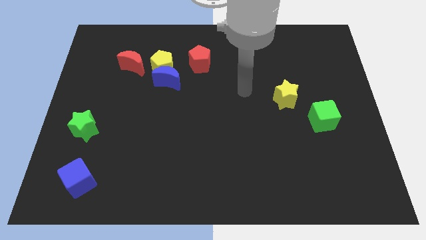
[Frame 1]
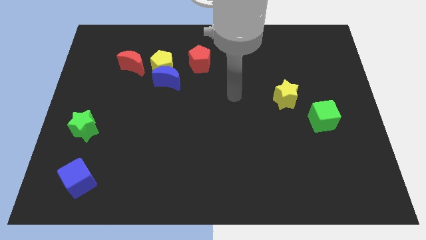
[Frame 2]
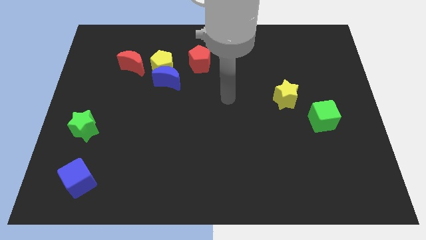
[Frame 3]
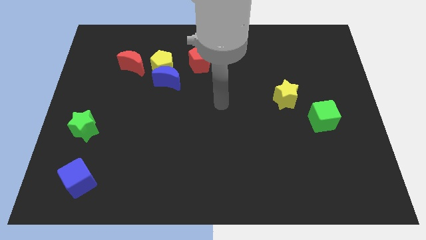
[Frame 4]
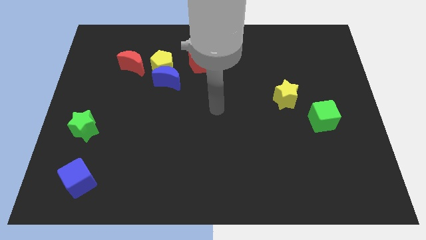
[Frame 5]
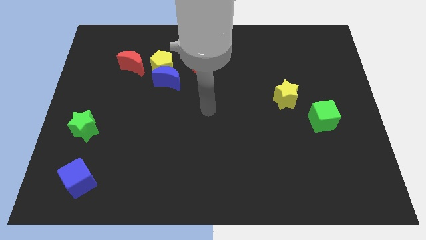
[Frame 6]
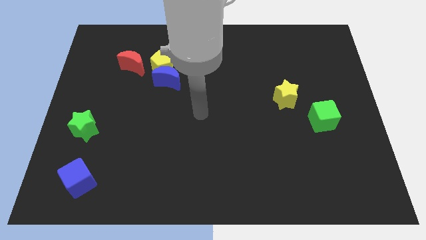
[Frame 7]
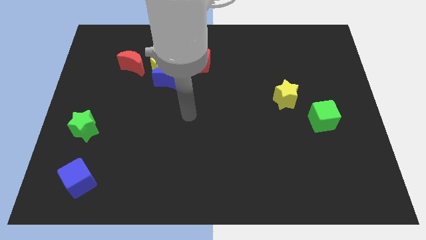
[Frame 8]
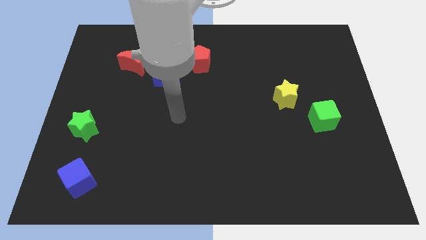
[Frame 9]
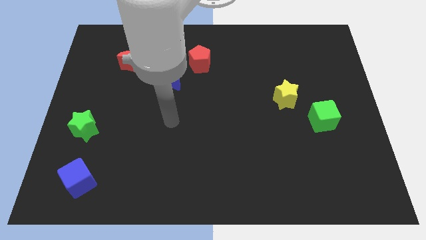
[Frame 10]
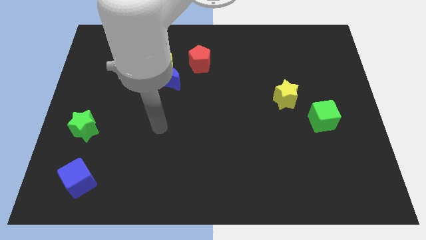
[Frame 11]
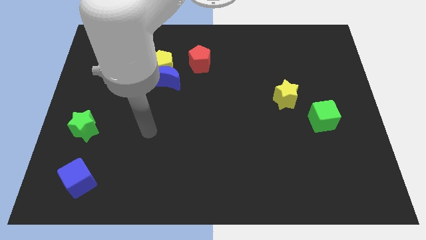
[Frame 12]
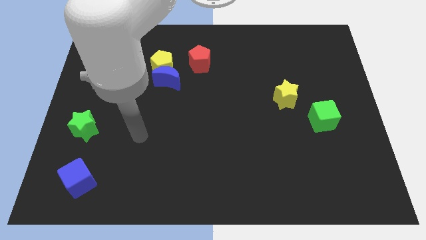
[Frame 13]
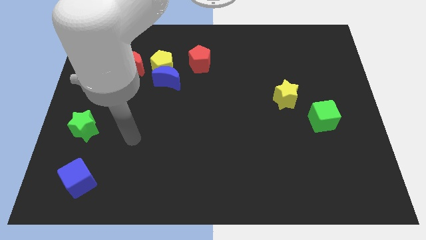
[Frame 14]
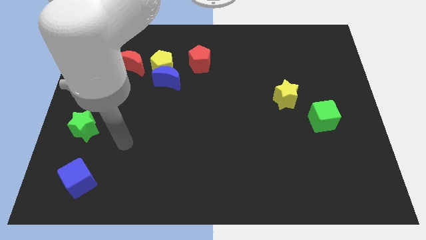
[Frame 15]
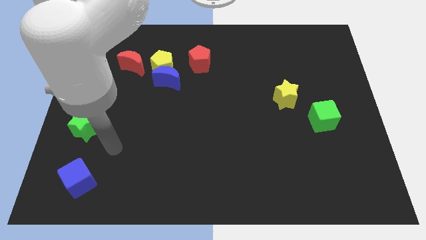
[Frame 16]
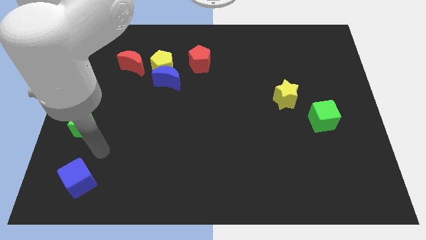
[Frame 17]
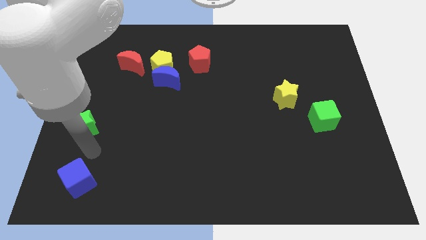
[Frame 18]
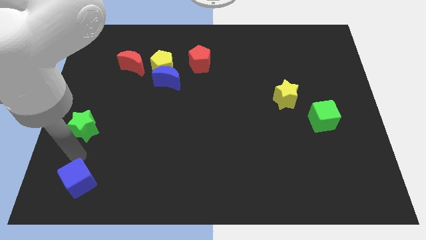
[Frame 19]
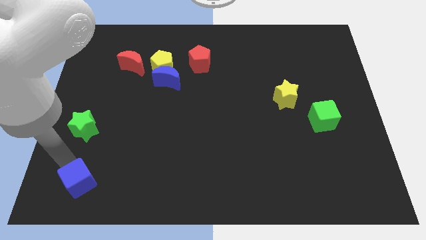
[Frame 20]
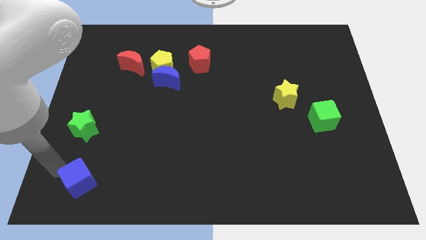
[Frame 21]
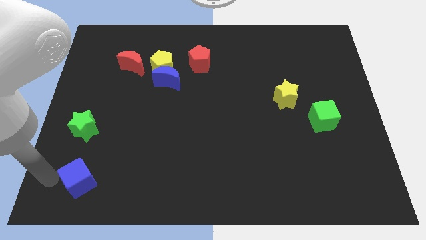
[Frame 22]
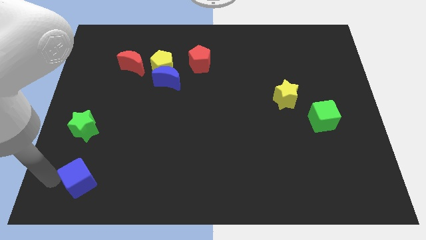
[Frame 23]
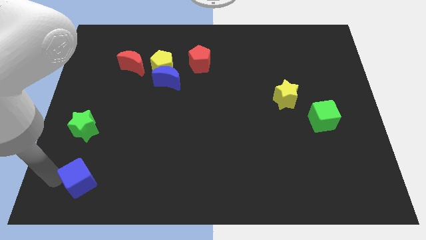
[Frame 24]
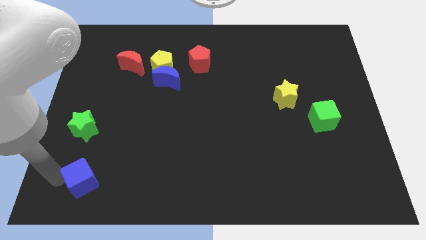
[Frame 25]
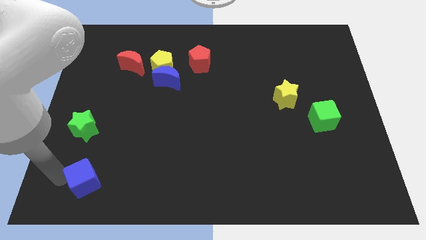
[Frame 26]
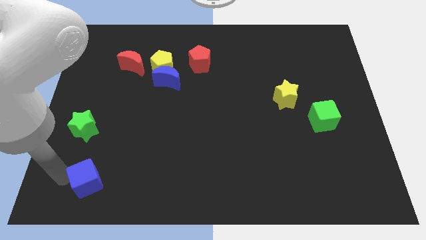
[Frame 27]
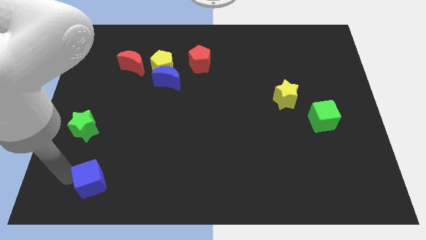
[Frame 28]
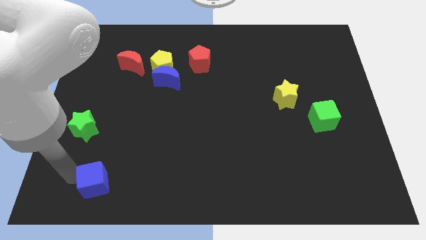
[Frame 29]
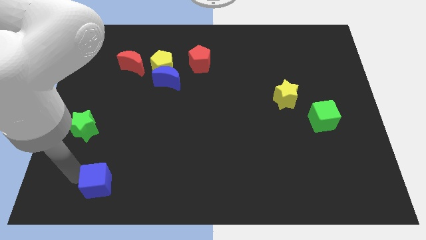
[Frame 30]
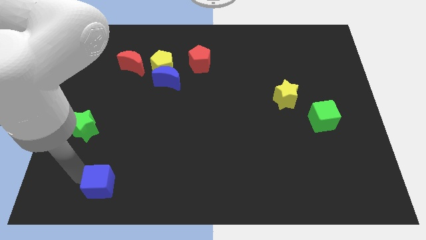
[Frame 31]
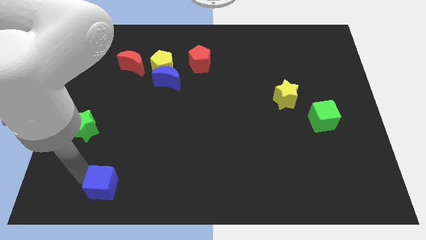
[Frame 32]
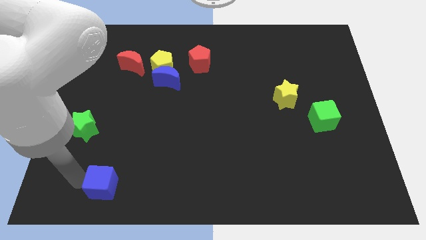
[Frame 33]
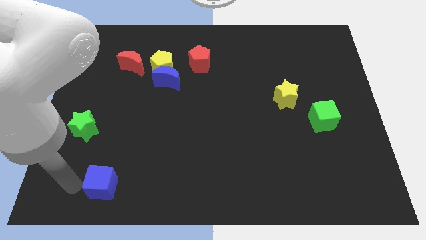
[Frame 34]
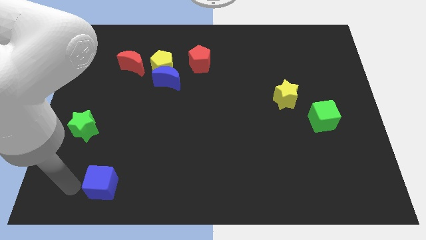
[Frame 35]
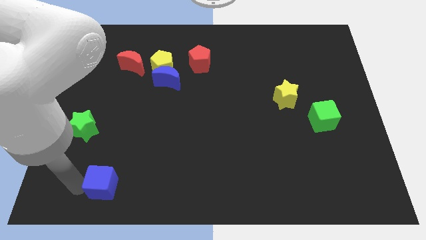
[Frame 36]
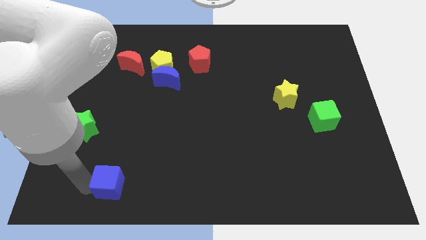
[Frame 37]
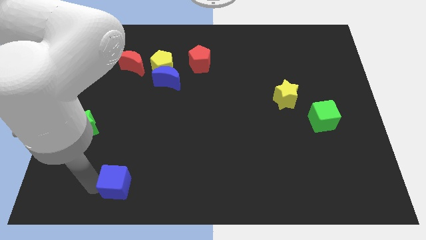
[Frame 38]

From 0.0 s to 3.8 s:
slightly move the blue cube right

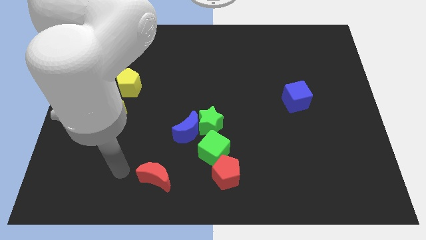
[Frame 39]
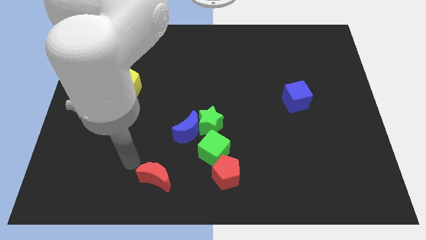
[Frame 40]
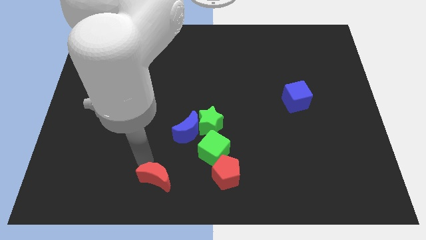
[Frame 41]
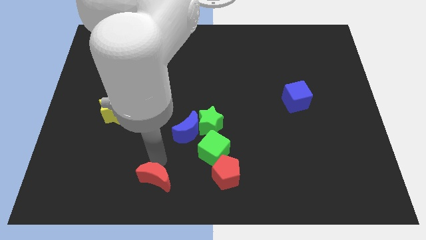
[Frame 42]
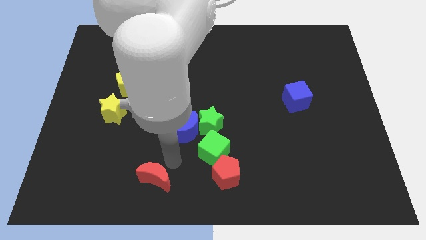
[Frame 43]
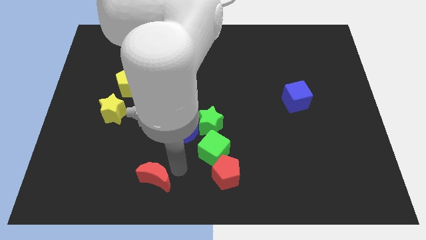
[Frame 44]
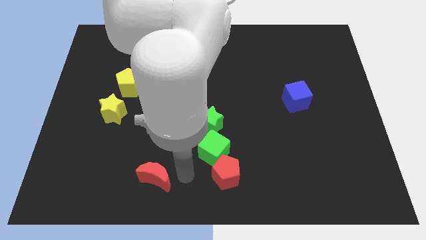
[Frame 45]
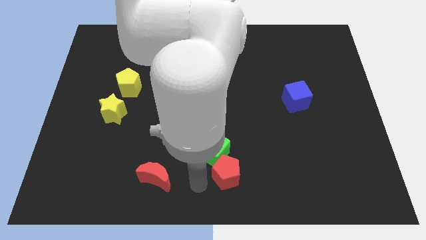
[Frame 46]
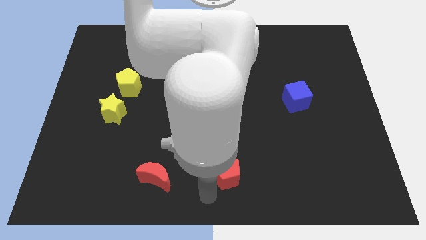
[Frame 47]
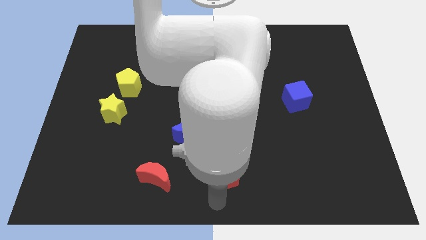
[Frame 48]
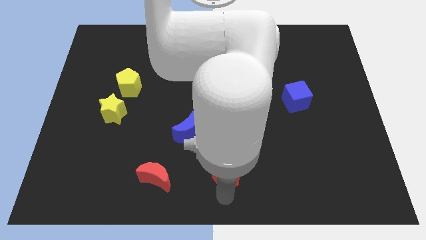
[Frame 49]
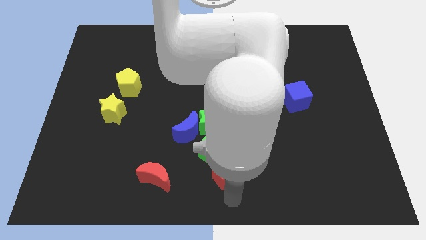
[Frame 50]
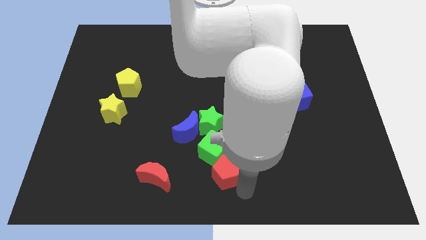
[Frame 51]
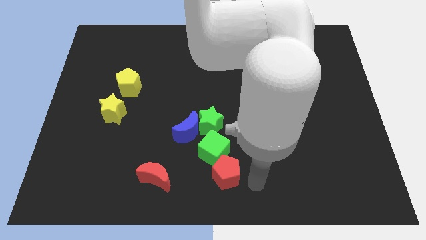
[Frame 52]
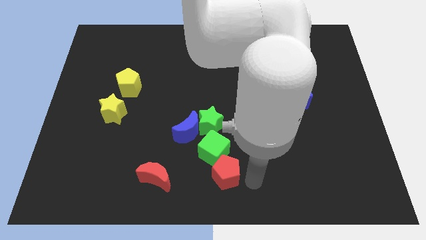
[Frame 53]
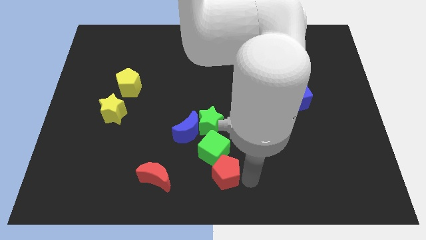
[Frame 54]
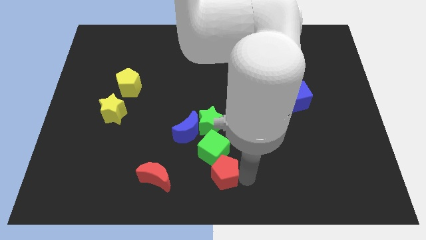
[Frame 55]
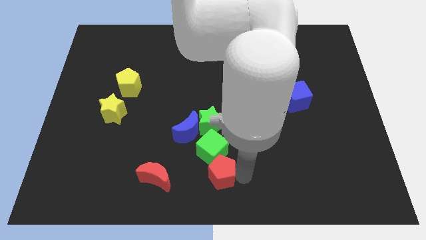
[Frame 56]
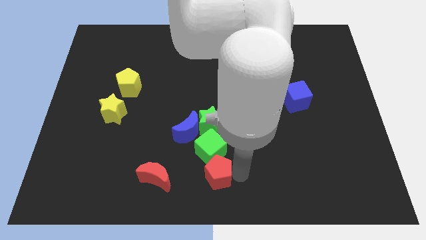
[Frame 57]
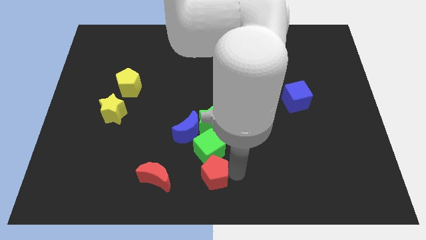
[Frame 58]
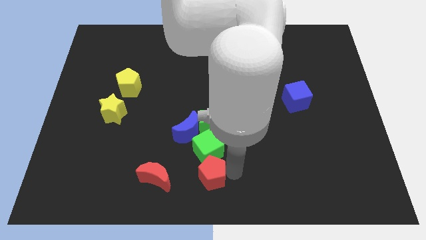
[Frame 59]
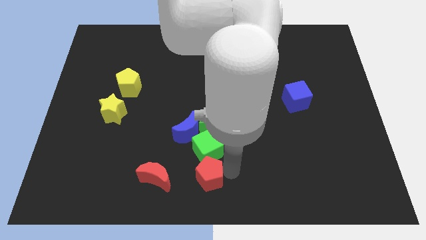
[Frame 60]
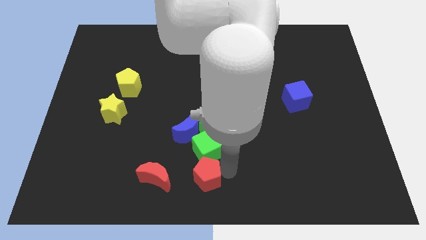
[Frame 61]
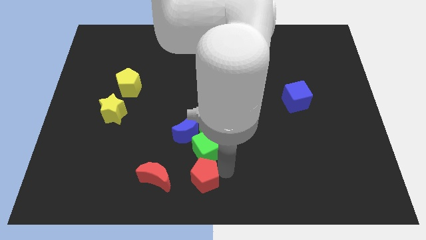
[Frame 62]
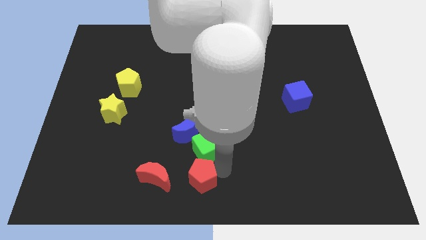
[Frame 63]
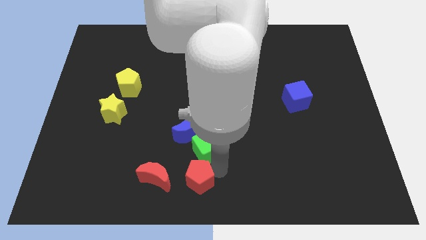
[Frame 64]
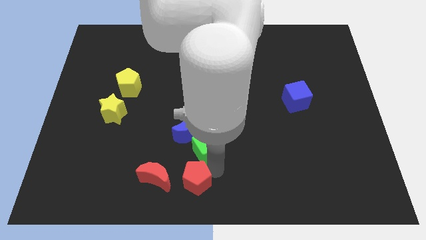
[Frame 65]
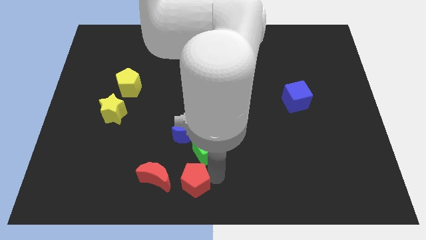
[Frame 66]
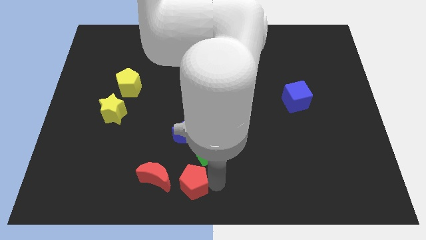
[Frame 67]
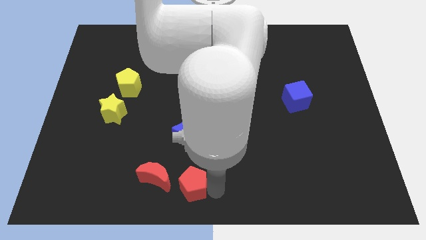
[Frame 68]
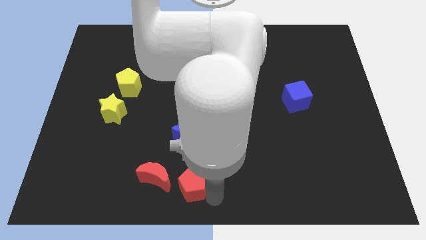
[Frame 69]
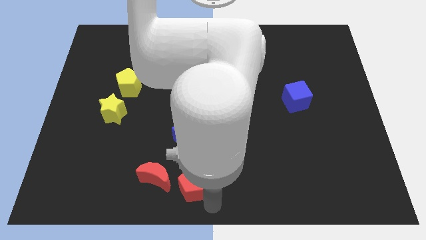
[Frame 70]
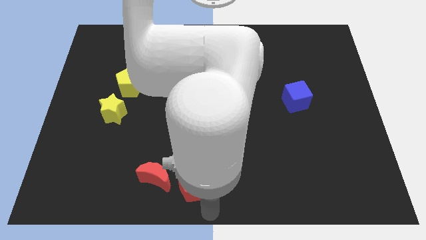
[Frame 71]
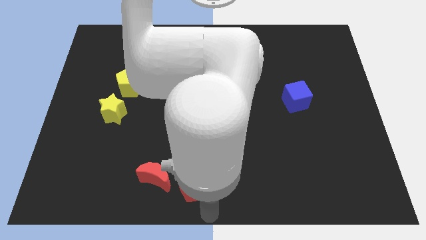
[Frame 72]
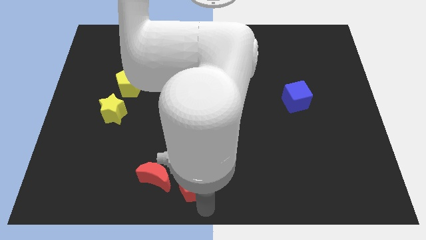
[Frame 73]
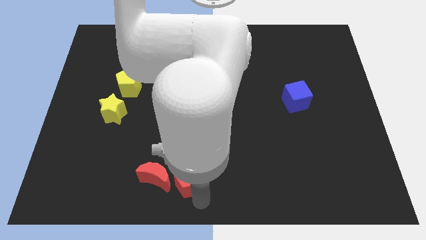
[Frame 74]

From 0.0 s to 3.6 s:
move the red pentagon a little left

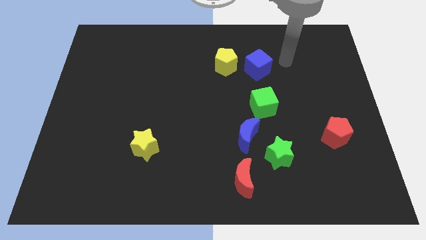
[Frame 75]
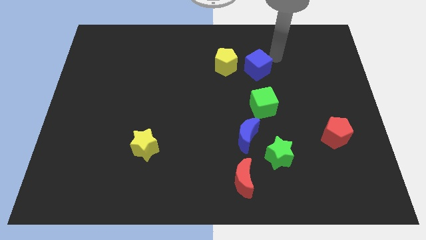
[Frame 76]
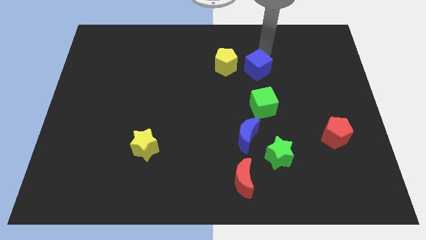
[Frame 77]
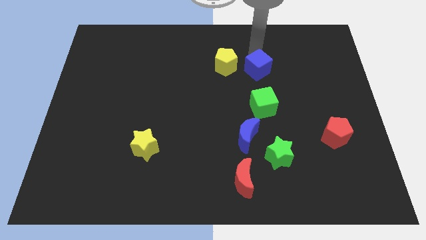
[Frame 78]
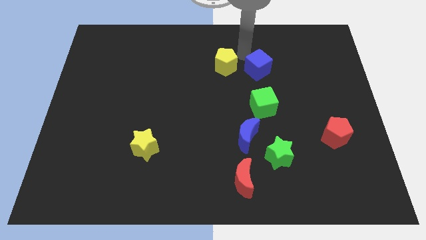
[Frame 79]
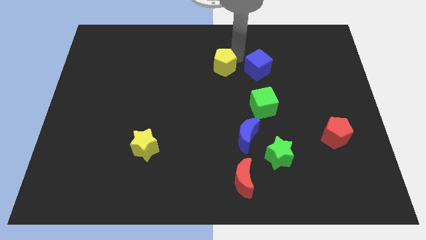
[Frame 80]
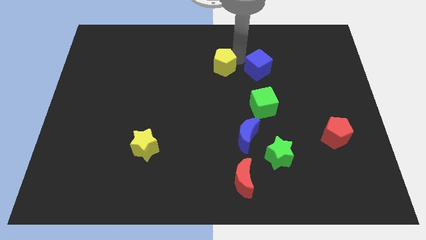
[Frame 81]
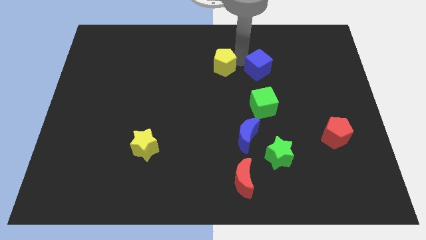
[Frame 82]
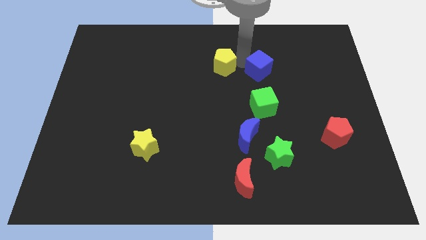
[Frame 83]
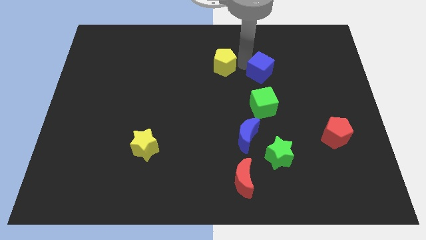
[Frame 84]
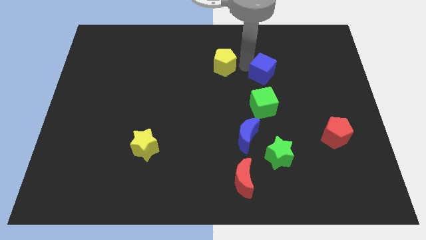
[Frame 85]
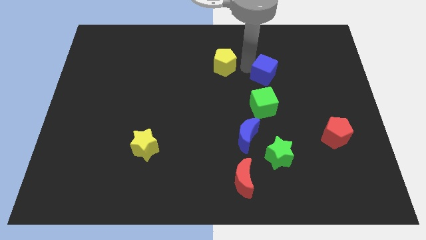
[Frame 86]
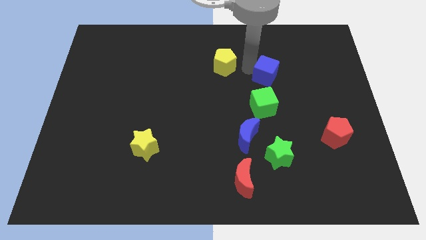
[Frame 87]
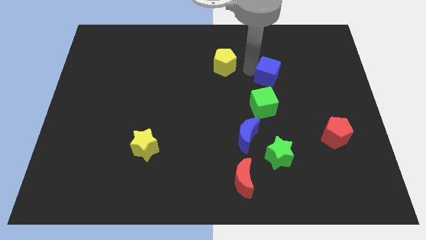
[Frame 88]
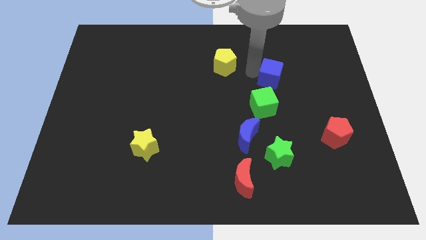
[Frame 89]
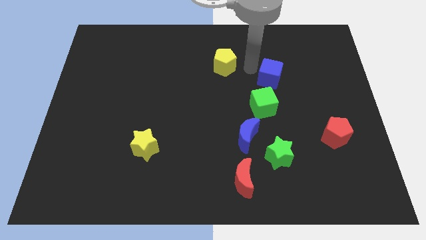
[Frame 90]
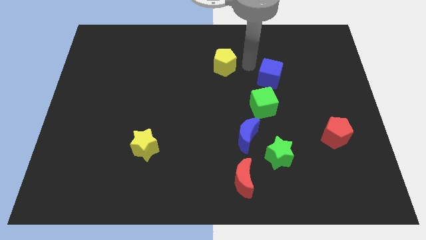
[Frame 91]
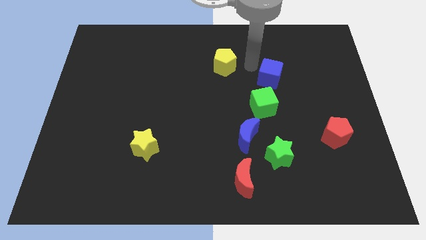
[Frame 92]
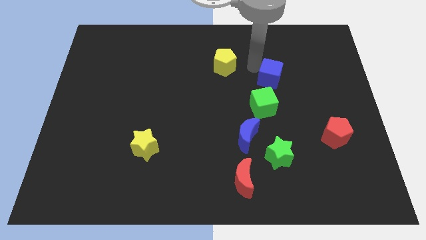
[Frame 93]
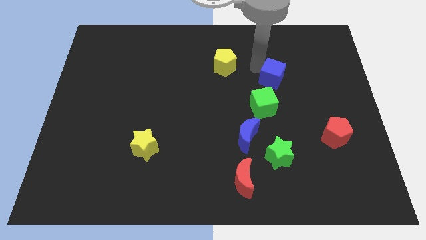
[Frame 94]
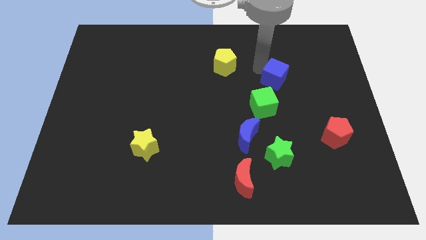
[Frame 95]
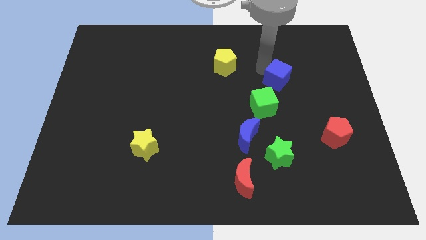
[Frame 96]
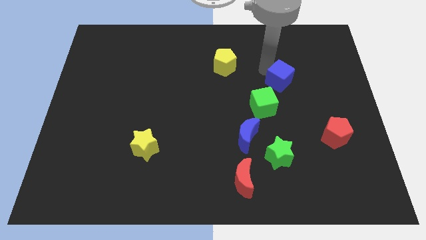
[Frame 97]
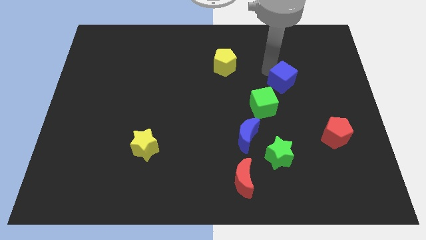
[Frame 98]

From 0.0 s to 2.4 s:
move the blue cube a bit down and right diagonally
